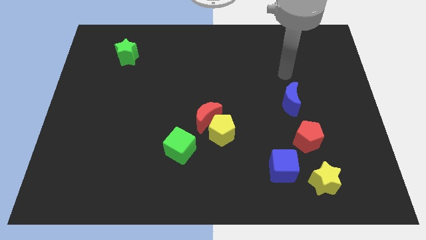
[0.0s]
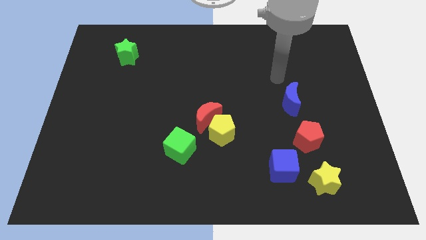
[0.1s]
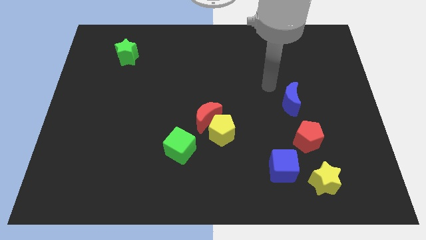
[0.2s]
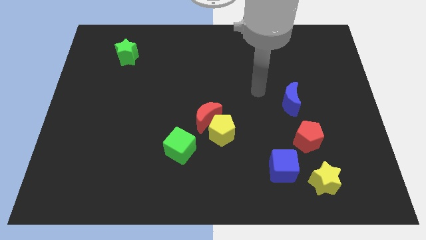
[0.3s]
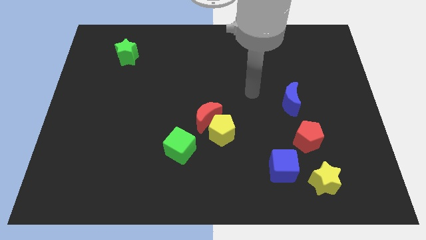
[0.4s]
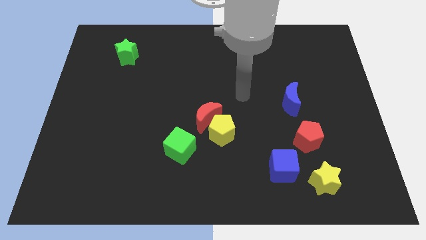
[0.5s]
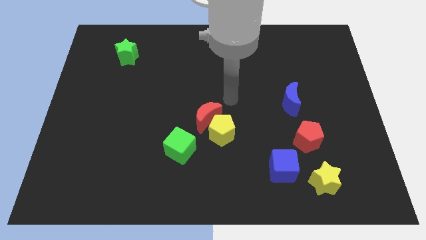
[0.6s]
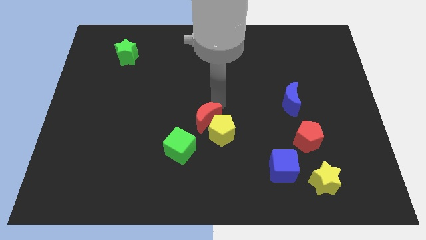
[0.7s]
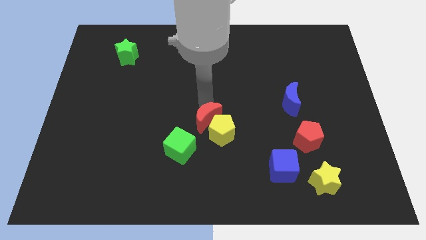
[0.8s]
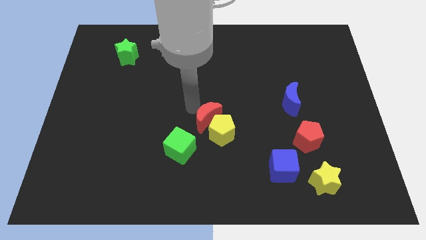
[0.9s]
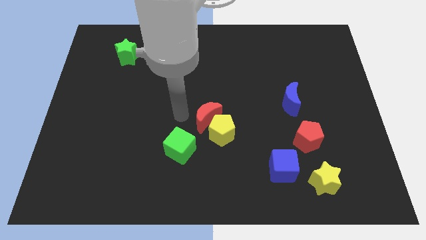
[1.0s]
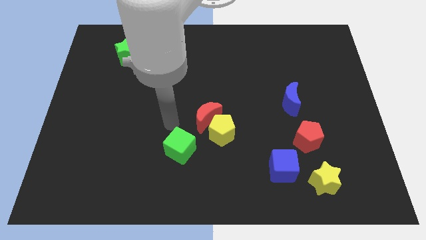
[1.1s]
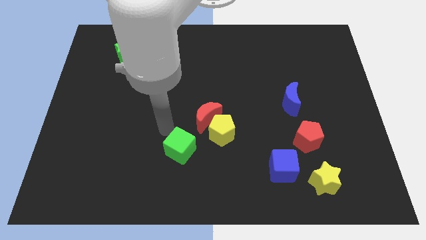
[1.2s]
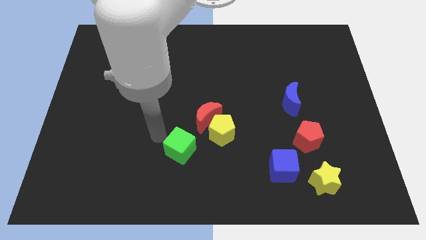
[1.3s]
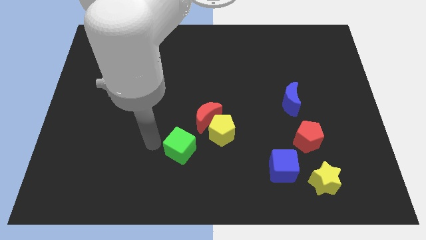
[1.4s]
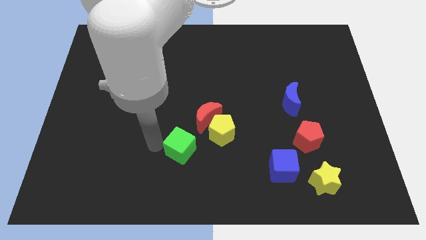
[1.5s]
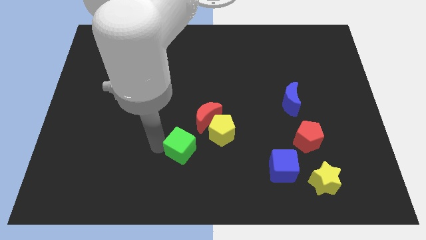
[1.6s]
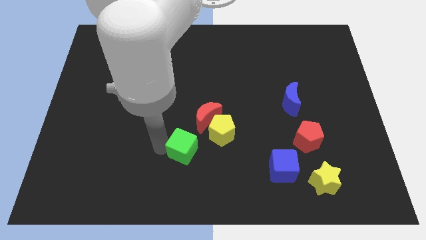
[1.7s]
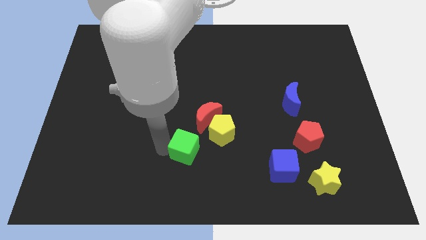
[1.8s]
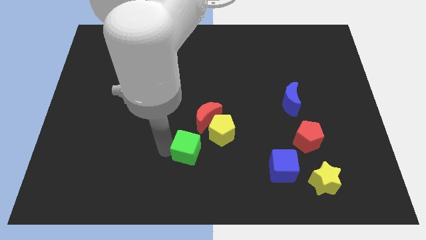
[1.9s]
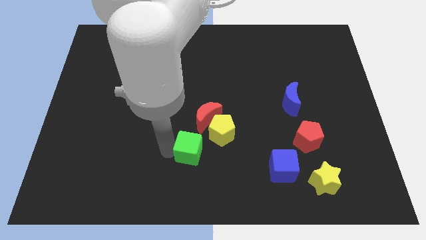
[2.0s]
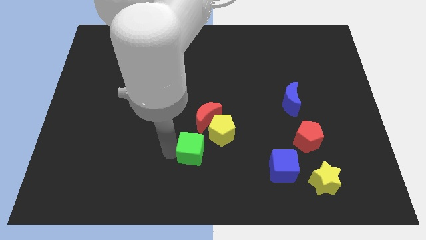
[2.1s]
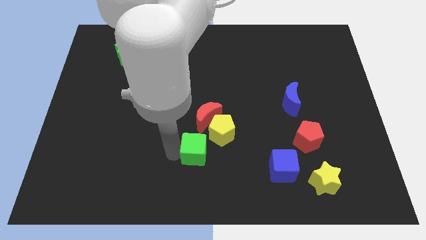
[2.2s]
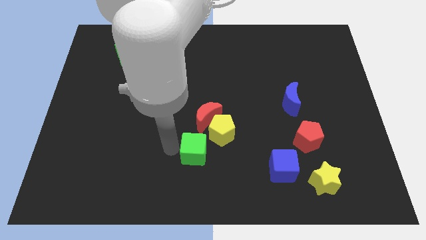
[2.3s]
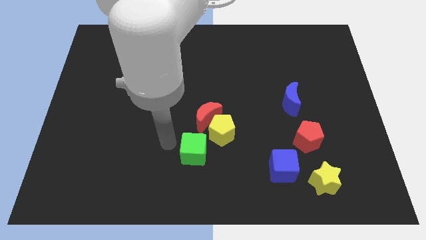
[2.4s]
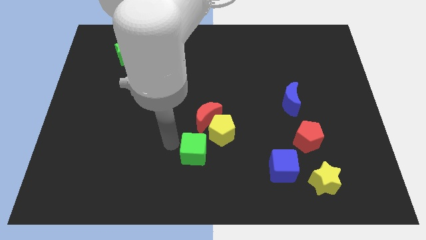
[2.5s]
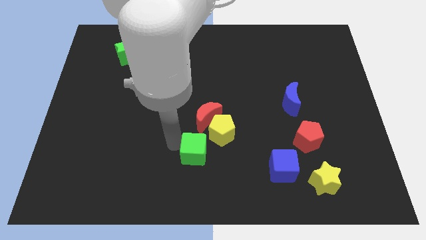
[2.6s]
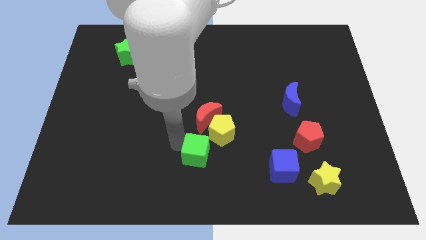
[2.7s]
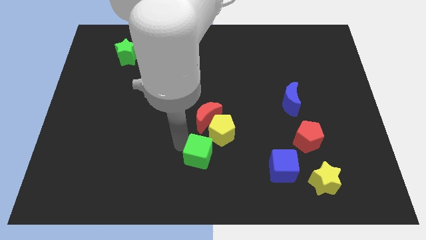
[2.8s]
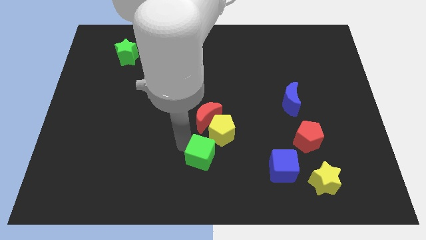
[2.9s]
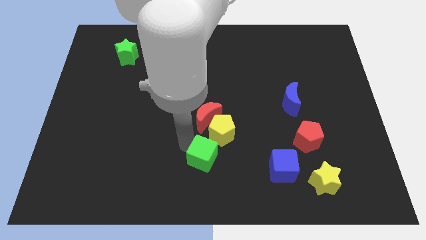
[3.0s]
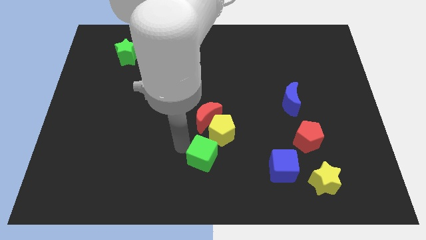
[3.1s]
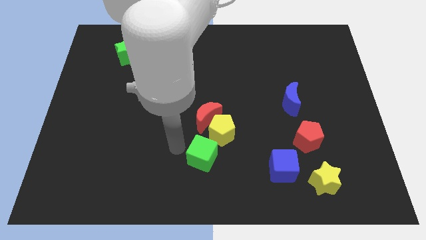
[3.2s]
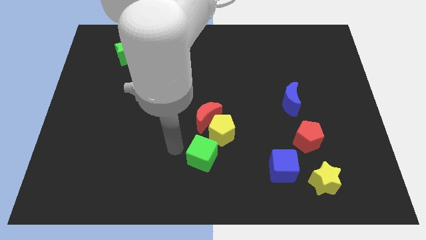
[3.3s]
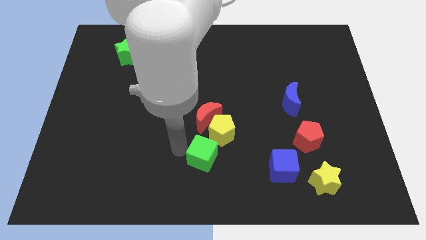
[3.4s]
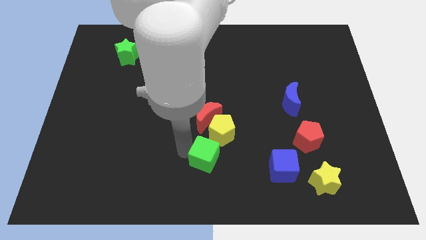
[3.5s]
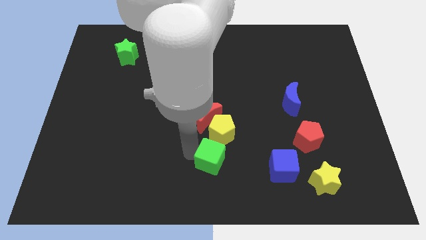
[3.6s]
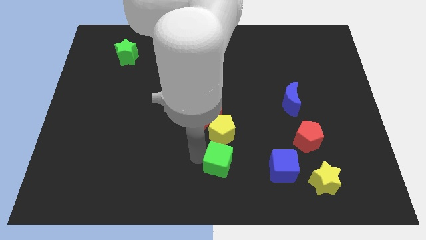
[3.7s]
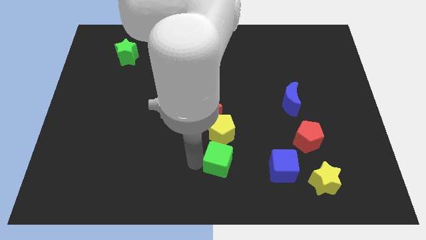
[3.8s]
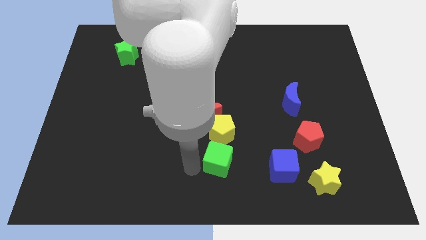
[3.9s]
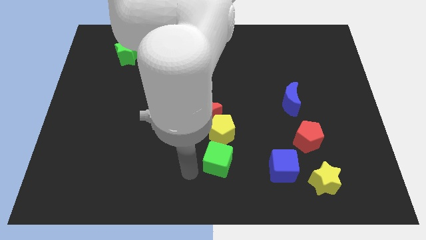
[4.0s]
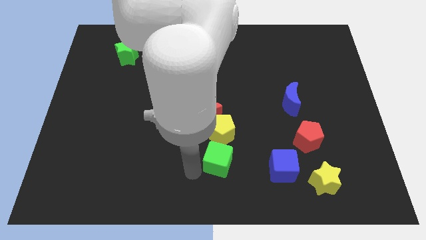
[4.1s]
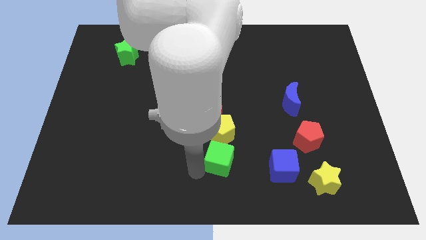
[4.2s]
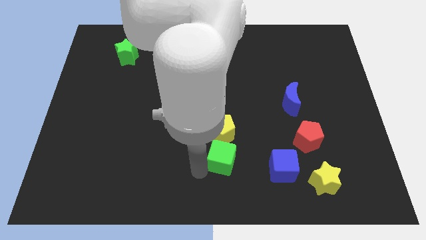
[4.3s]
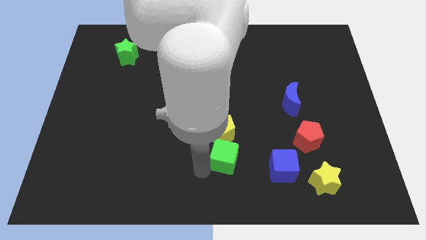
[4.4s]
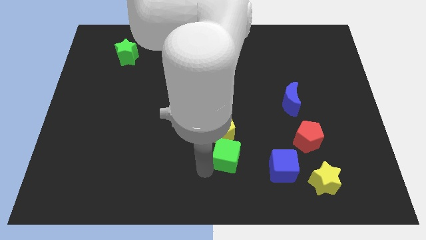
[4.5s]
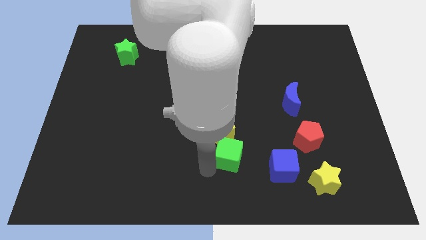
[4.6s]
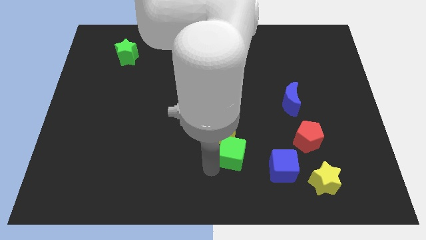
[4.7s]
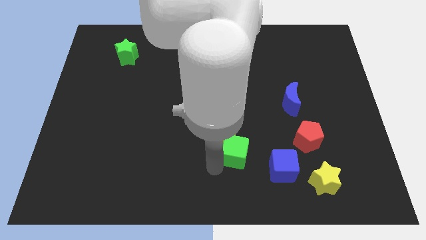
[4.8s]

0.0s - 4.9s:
push the green cube to the top left of the blue cube

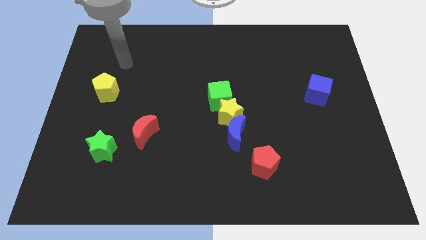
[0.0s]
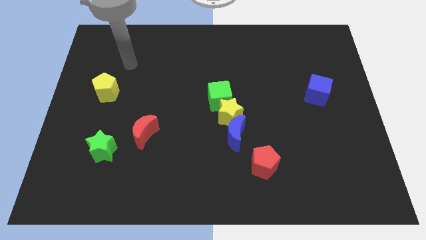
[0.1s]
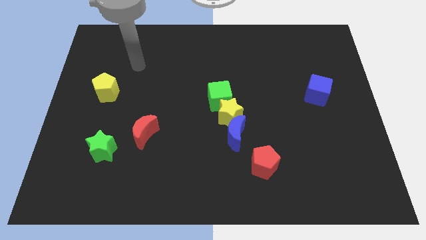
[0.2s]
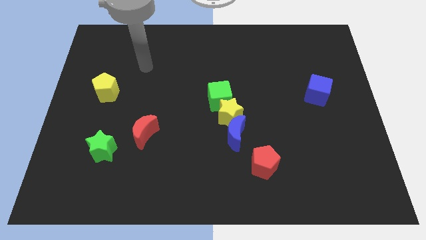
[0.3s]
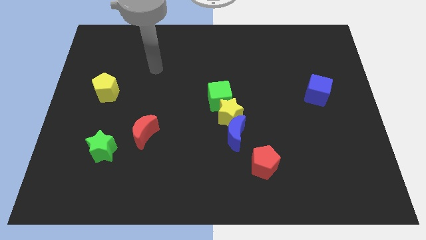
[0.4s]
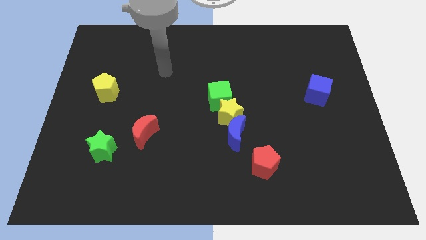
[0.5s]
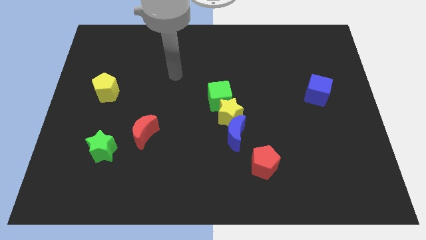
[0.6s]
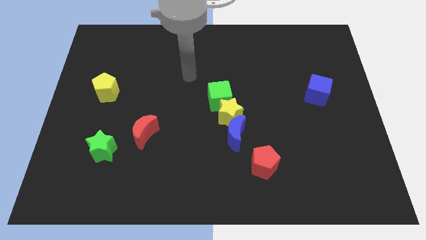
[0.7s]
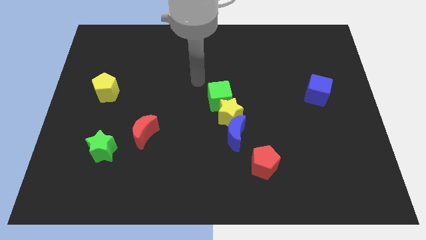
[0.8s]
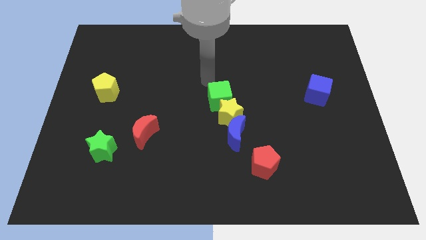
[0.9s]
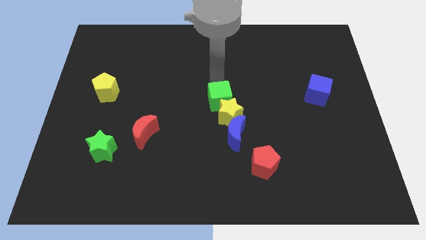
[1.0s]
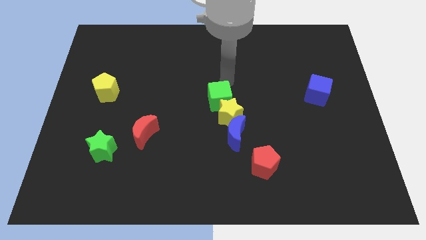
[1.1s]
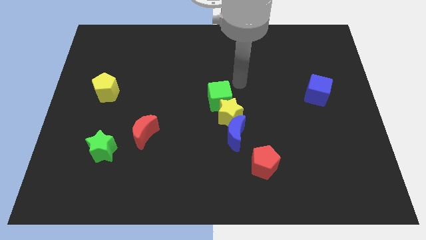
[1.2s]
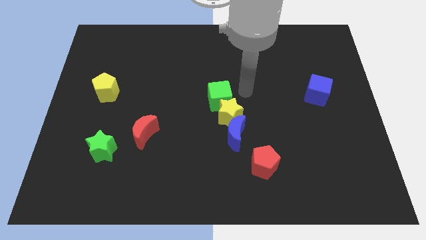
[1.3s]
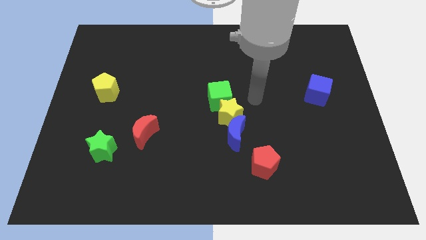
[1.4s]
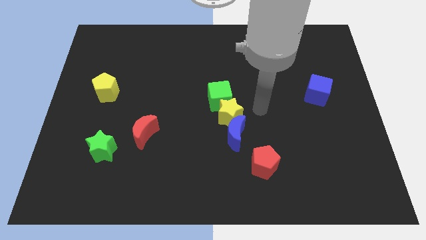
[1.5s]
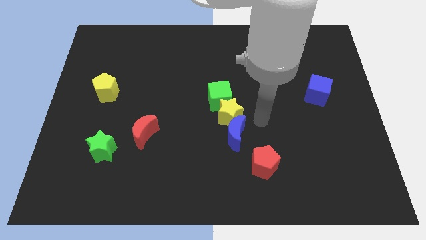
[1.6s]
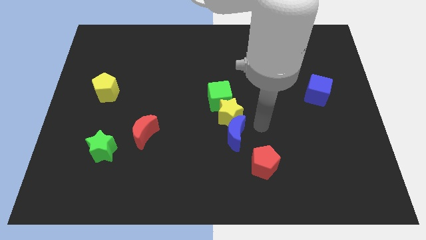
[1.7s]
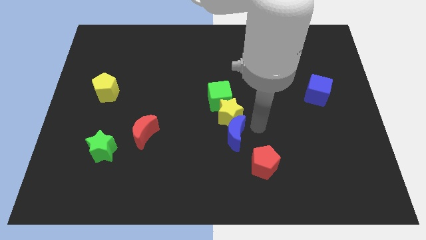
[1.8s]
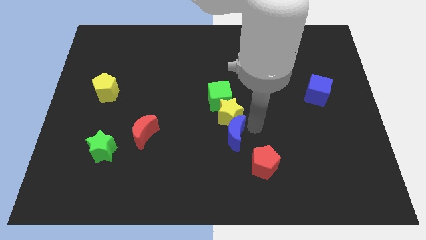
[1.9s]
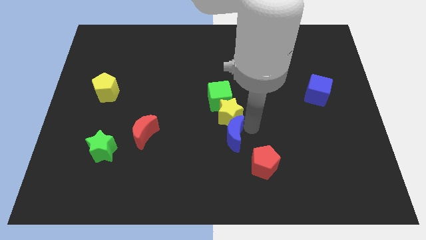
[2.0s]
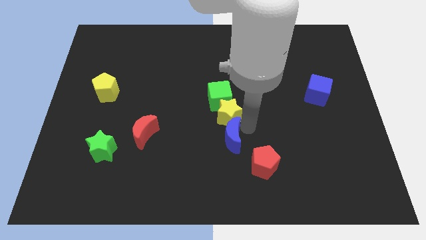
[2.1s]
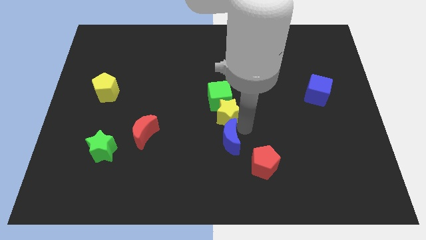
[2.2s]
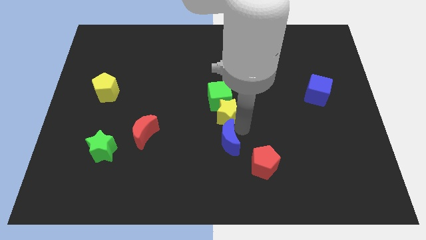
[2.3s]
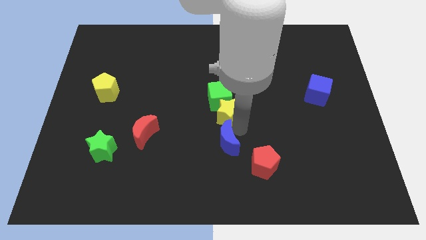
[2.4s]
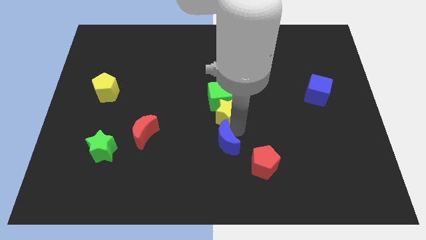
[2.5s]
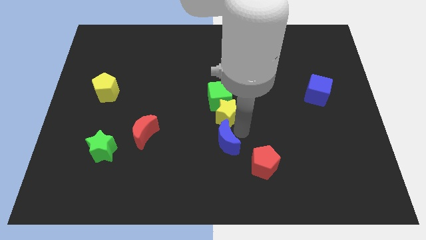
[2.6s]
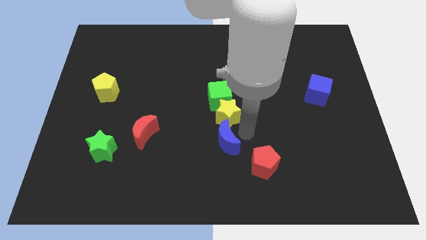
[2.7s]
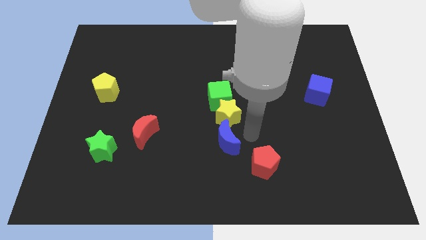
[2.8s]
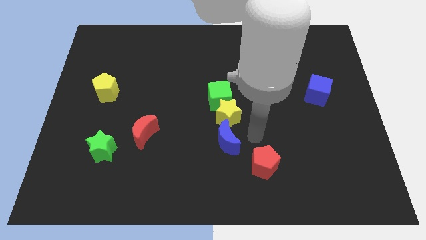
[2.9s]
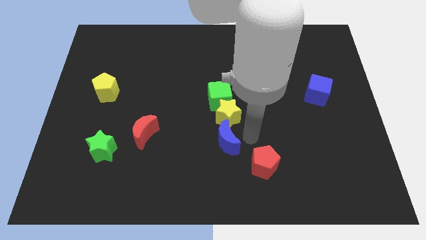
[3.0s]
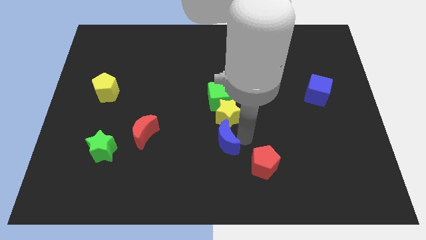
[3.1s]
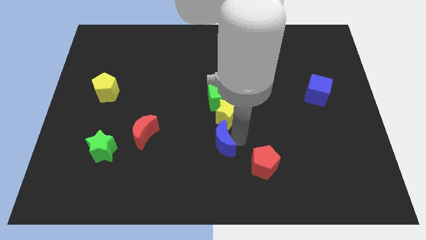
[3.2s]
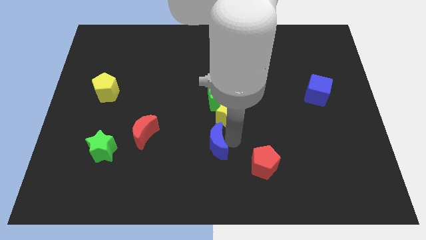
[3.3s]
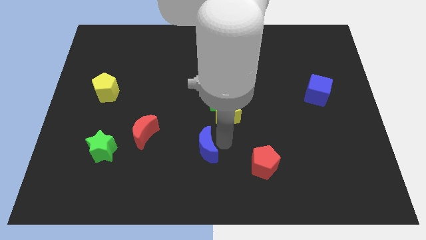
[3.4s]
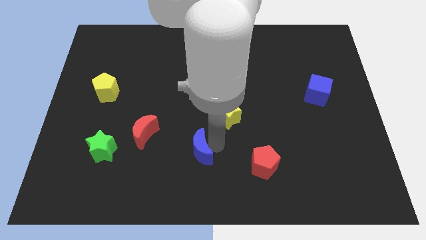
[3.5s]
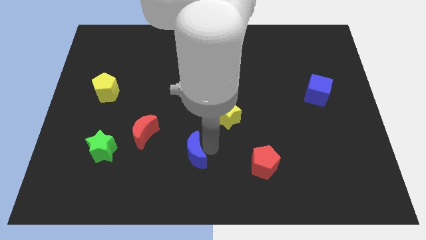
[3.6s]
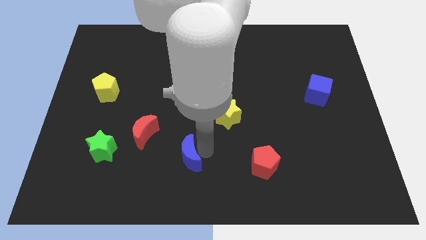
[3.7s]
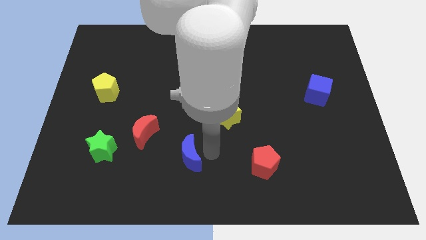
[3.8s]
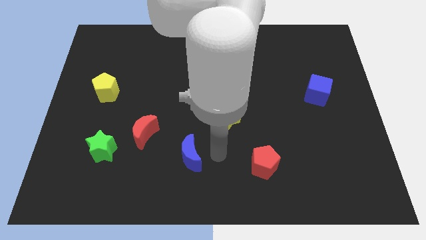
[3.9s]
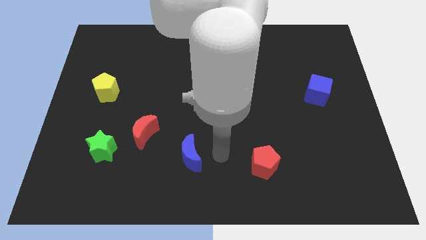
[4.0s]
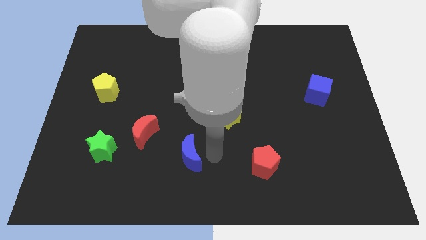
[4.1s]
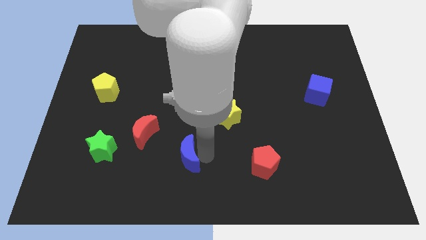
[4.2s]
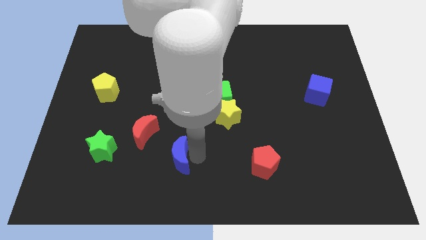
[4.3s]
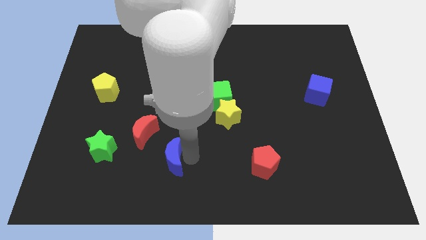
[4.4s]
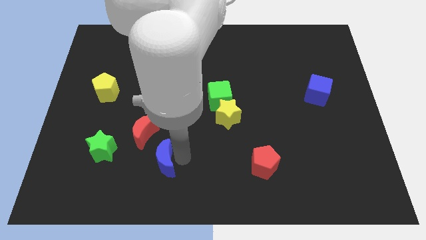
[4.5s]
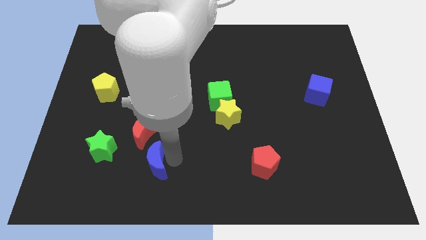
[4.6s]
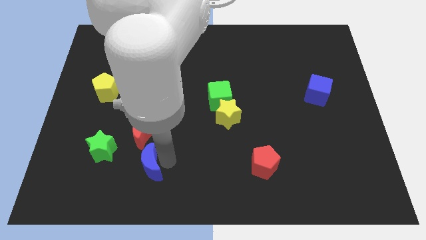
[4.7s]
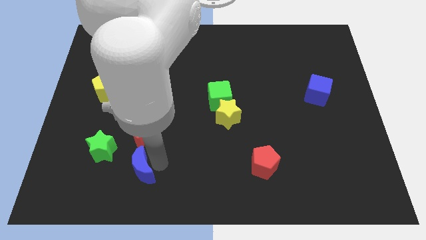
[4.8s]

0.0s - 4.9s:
move the blue moon diagonally down and to the right of the green star
